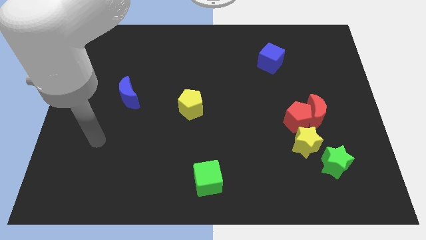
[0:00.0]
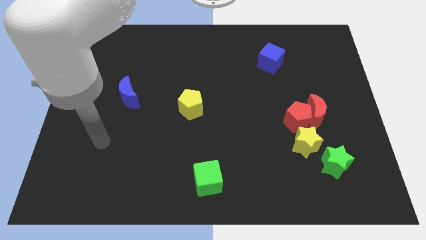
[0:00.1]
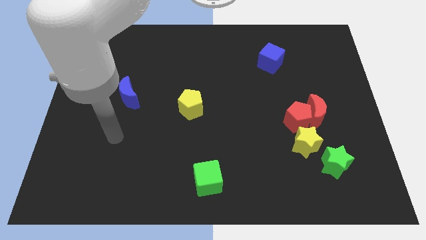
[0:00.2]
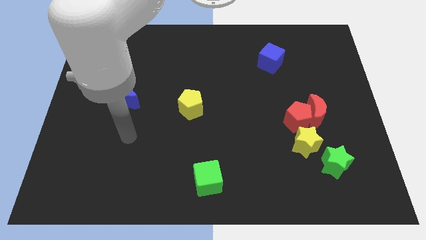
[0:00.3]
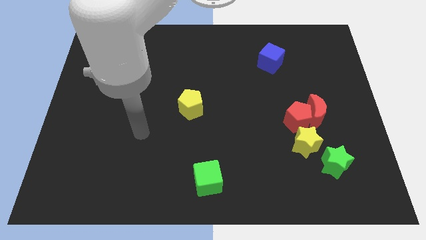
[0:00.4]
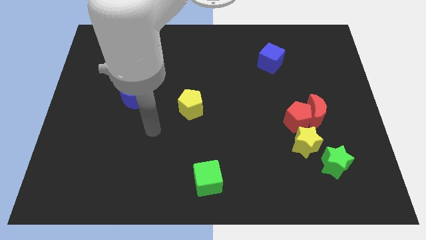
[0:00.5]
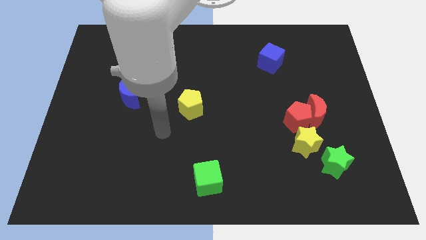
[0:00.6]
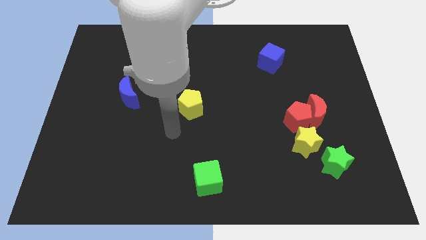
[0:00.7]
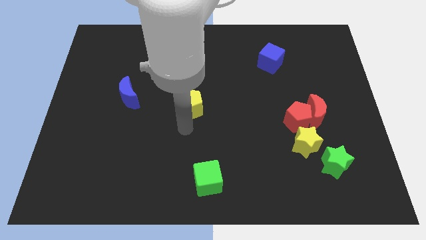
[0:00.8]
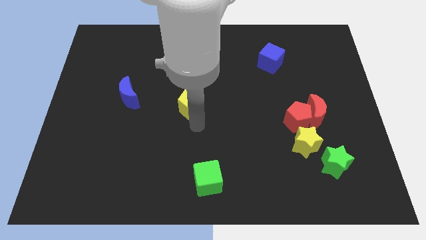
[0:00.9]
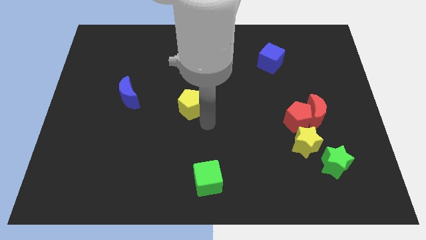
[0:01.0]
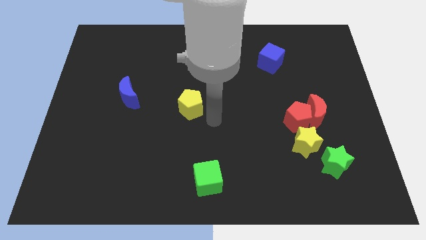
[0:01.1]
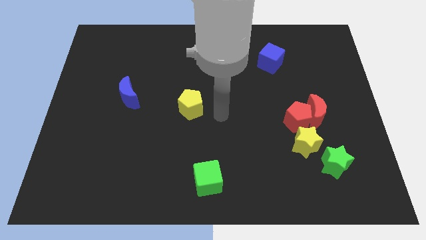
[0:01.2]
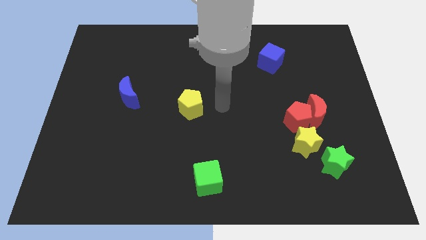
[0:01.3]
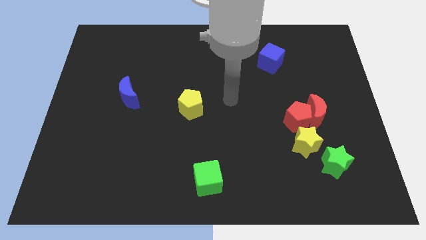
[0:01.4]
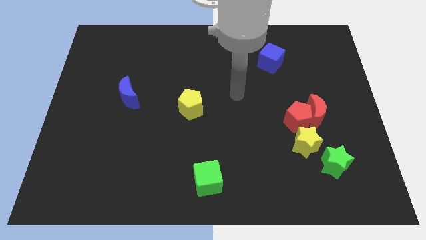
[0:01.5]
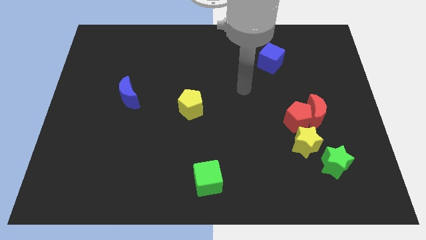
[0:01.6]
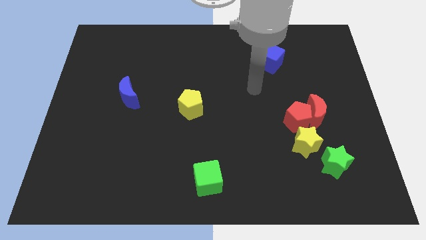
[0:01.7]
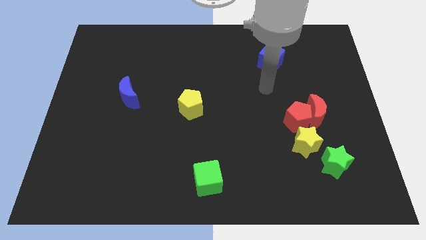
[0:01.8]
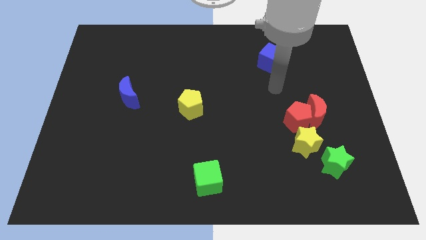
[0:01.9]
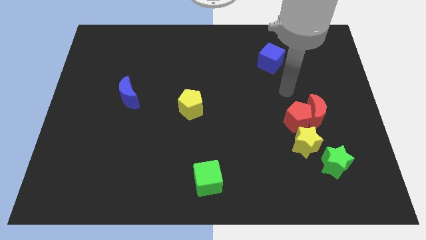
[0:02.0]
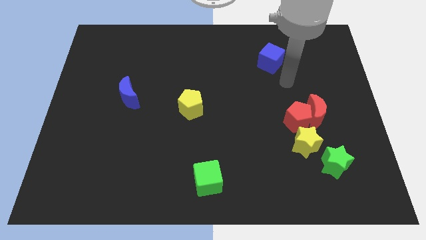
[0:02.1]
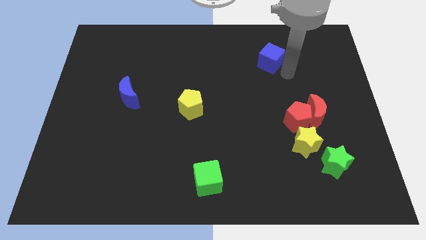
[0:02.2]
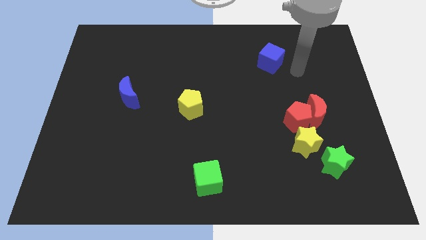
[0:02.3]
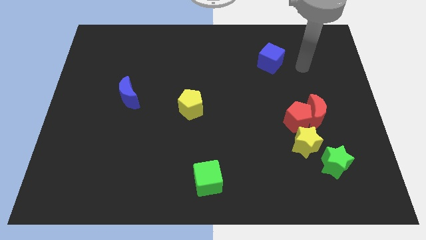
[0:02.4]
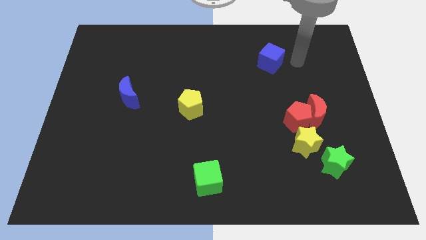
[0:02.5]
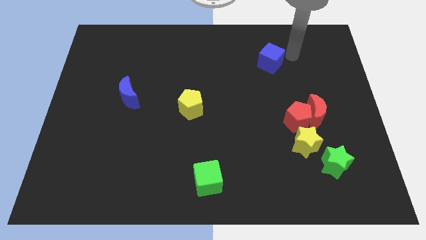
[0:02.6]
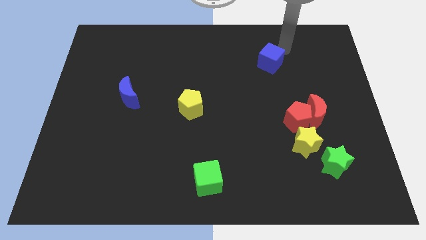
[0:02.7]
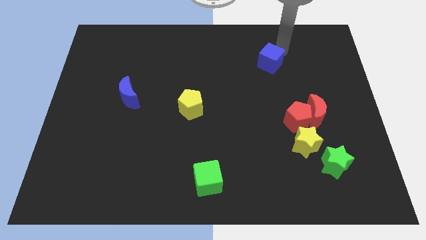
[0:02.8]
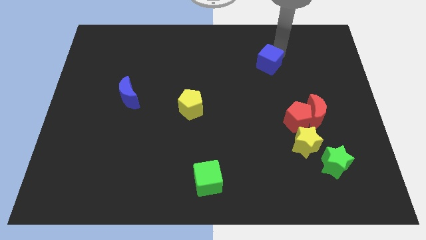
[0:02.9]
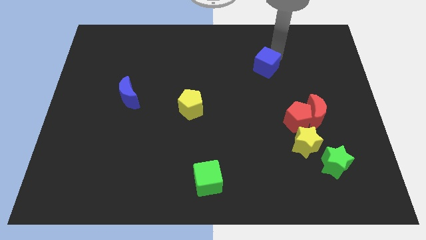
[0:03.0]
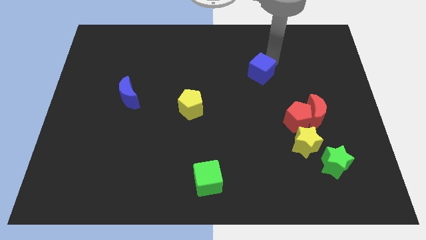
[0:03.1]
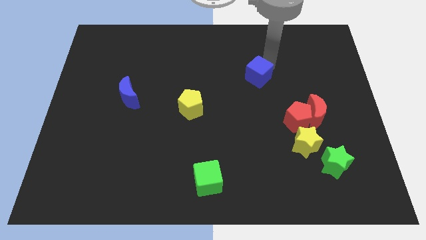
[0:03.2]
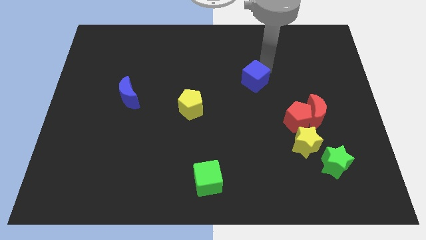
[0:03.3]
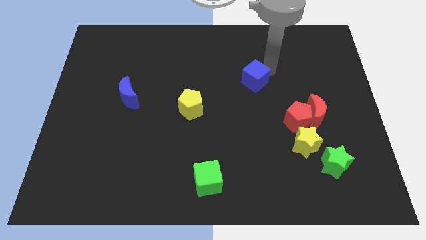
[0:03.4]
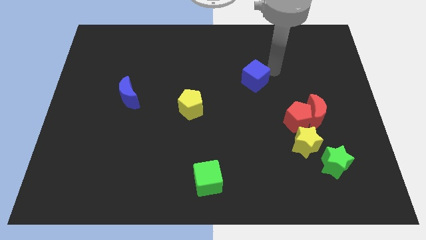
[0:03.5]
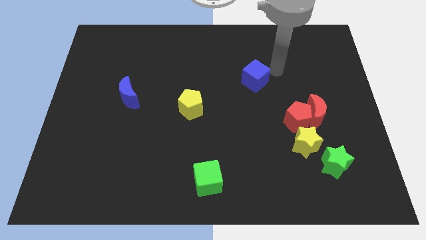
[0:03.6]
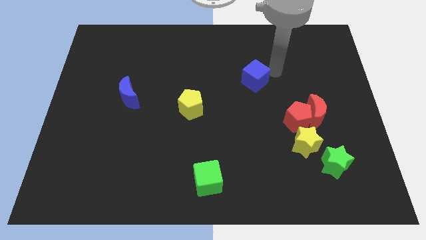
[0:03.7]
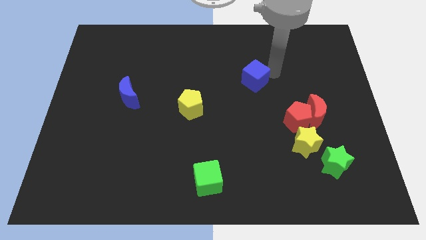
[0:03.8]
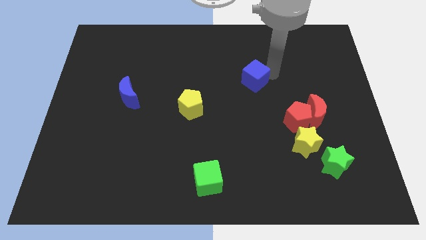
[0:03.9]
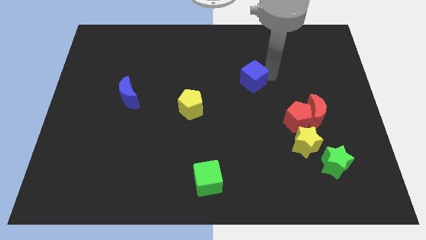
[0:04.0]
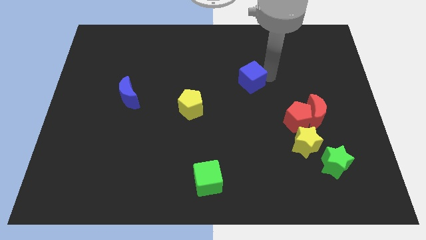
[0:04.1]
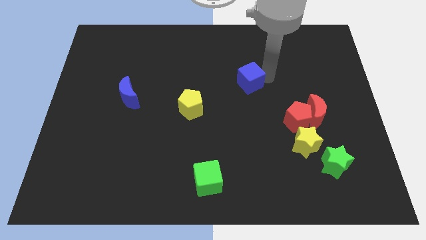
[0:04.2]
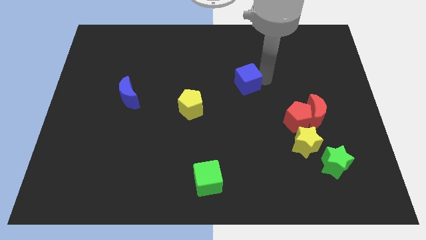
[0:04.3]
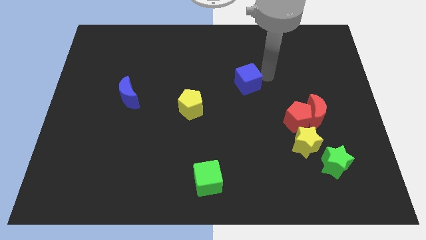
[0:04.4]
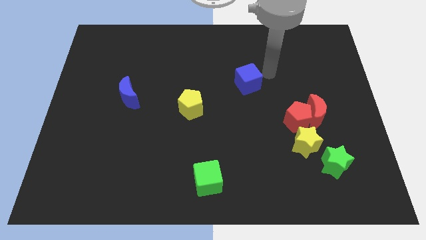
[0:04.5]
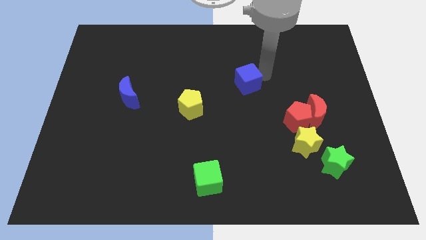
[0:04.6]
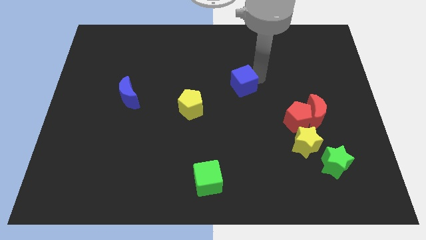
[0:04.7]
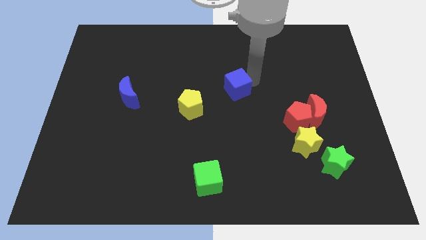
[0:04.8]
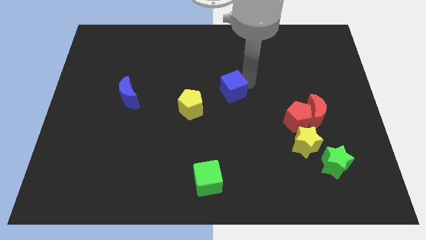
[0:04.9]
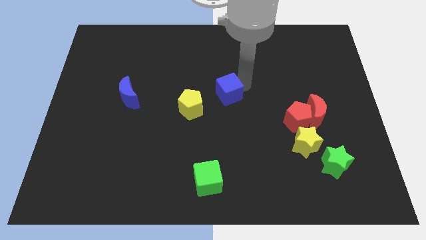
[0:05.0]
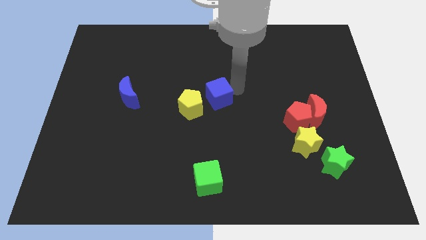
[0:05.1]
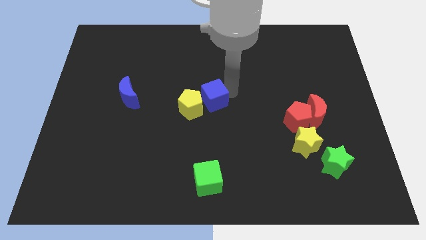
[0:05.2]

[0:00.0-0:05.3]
move the blue cube towards the yellow pentagon

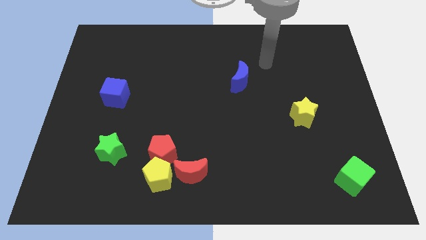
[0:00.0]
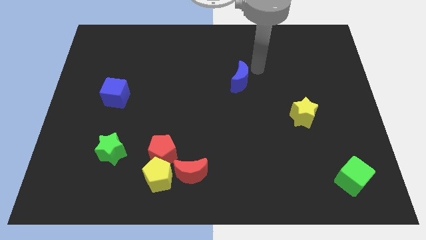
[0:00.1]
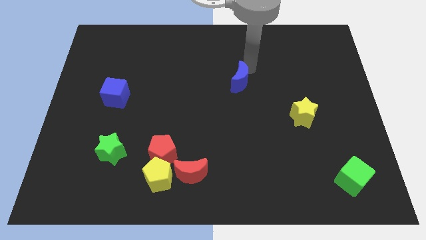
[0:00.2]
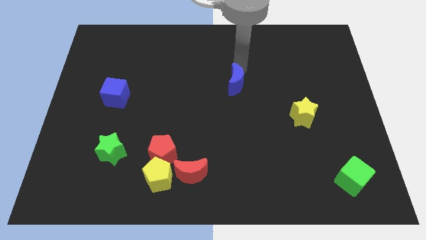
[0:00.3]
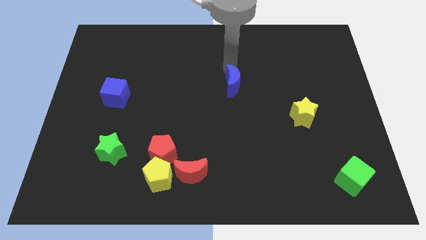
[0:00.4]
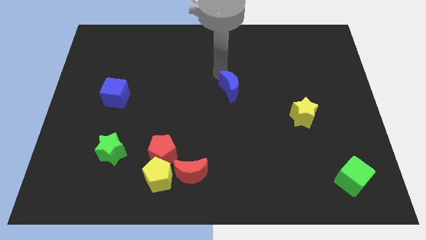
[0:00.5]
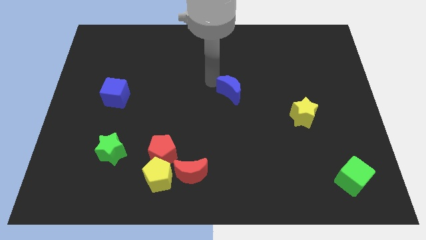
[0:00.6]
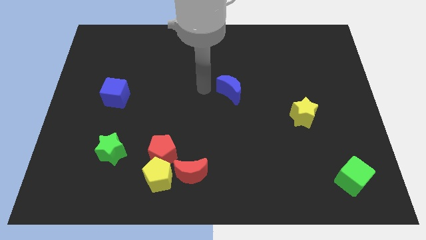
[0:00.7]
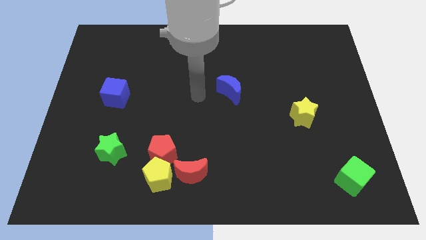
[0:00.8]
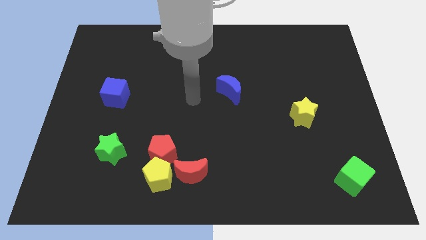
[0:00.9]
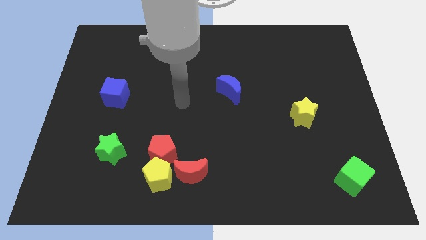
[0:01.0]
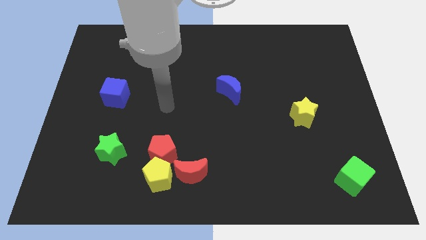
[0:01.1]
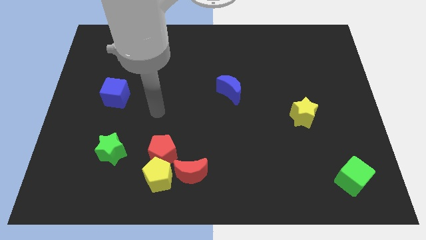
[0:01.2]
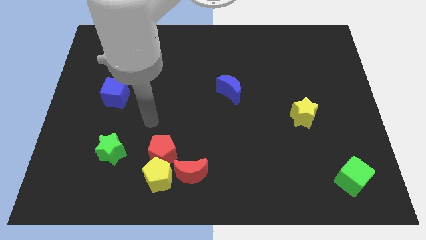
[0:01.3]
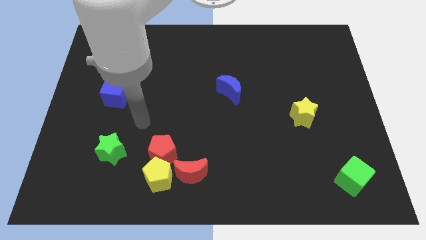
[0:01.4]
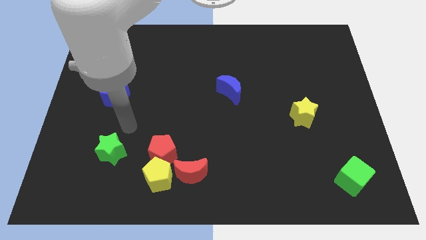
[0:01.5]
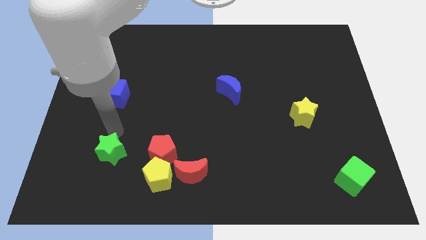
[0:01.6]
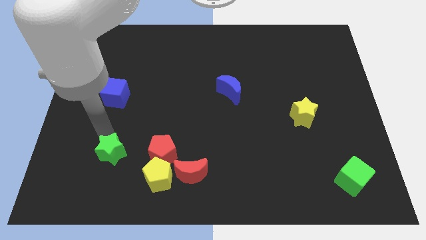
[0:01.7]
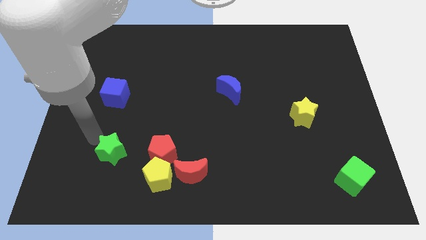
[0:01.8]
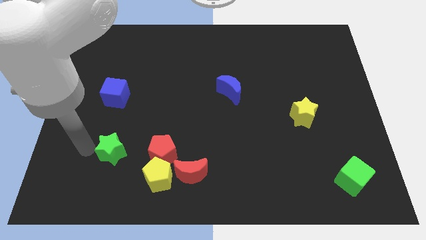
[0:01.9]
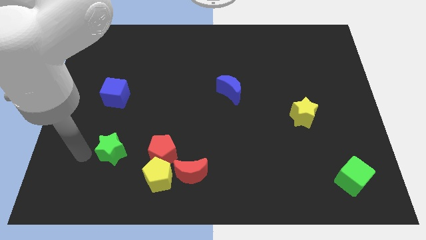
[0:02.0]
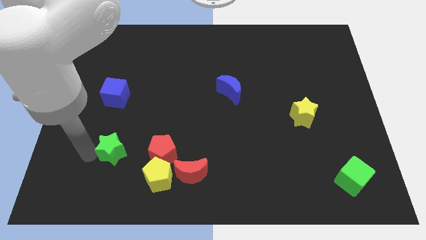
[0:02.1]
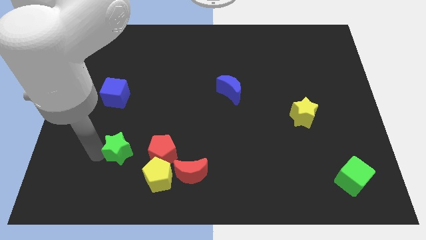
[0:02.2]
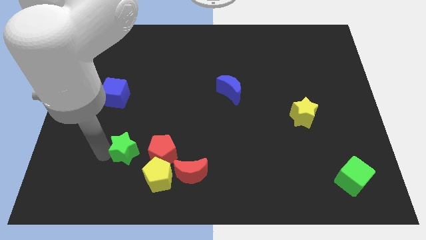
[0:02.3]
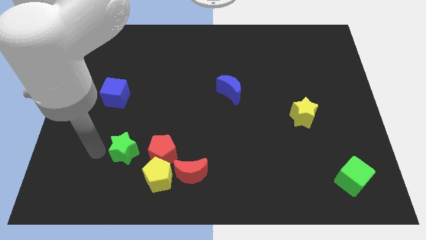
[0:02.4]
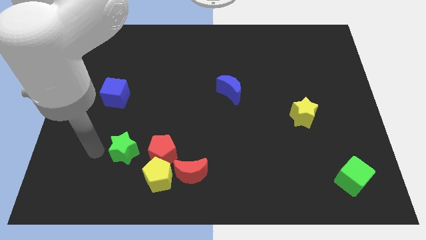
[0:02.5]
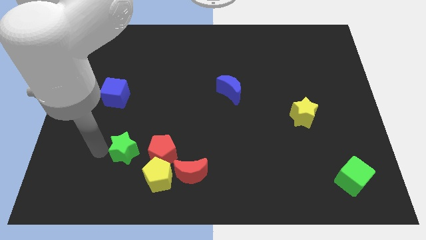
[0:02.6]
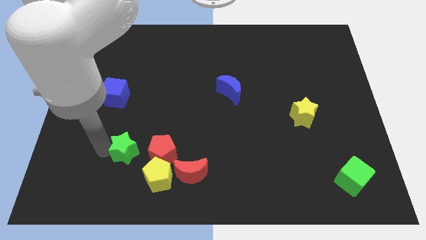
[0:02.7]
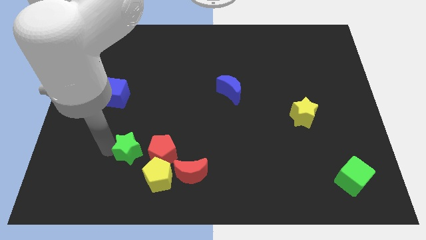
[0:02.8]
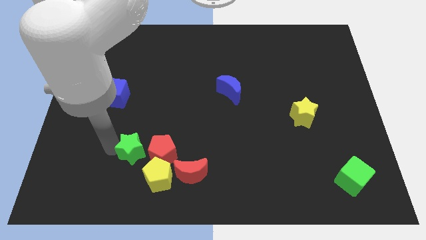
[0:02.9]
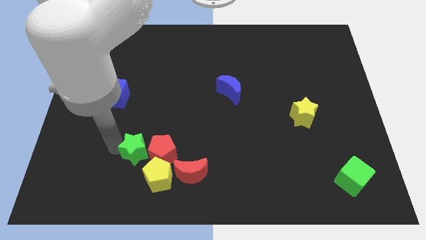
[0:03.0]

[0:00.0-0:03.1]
move the green star towards the red pentagon
